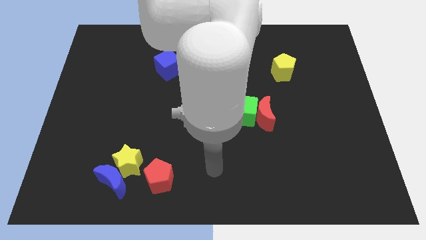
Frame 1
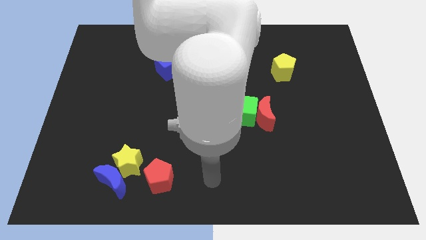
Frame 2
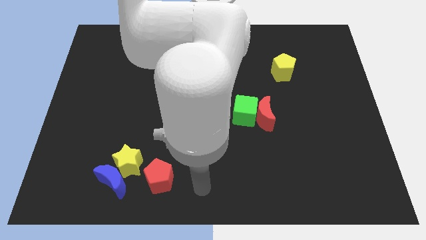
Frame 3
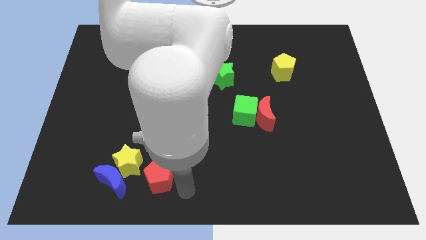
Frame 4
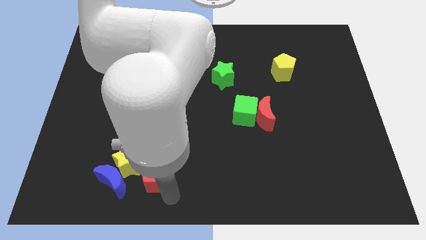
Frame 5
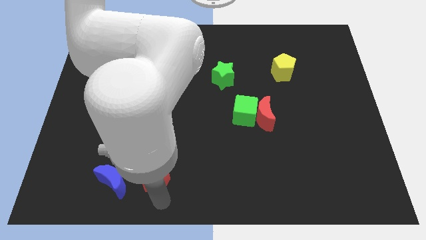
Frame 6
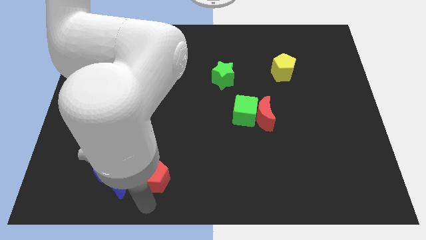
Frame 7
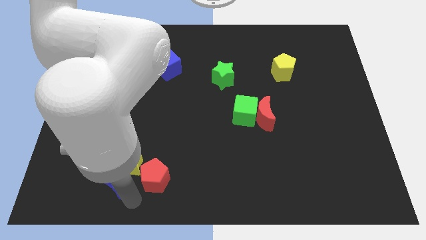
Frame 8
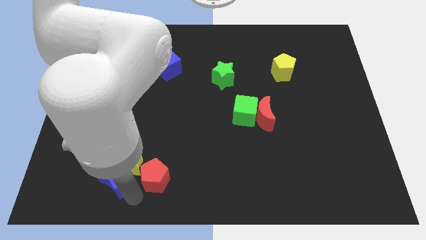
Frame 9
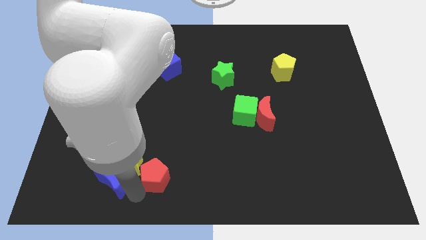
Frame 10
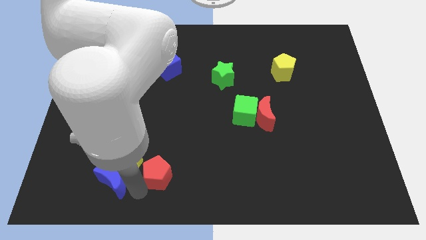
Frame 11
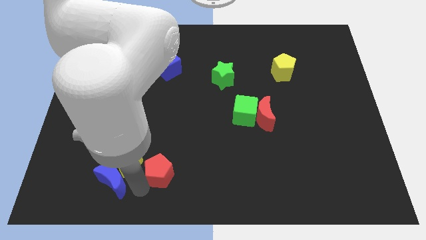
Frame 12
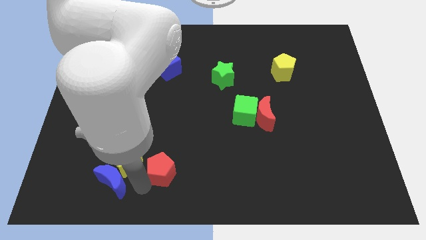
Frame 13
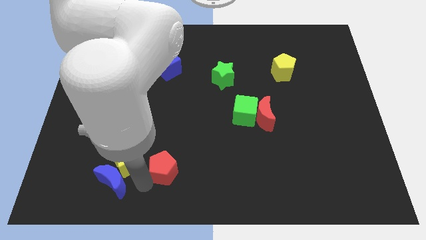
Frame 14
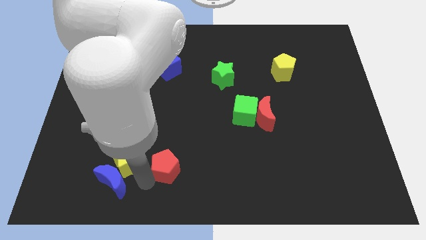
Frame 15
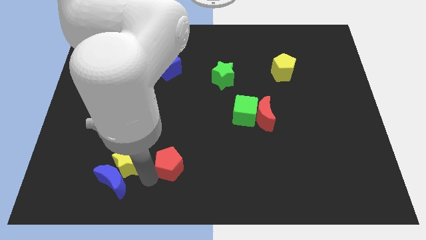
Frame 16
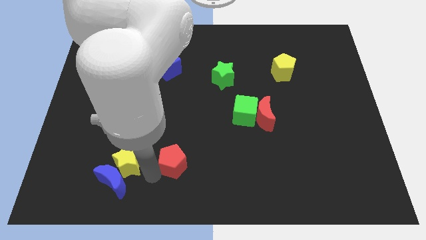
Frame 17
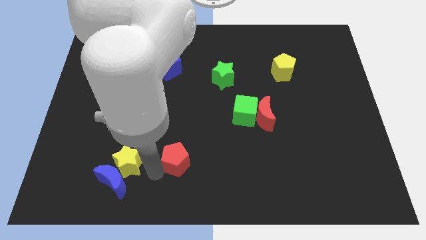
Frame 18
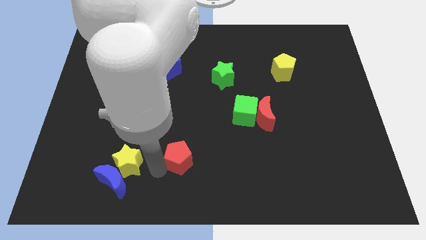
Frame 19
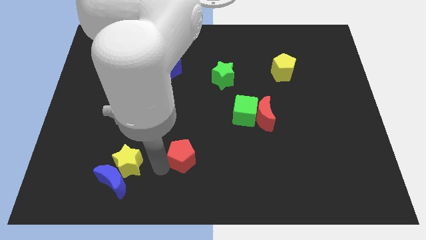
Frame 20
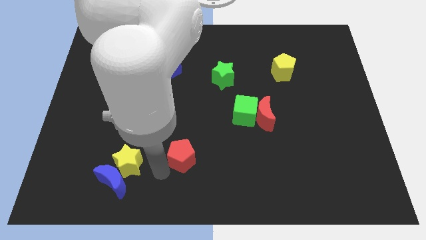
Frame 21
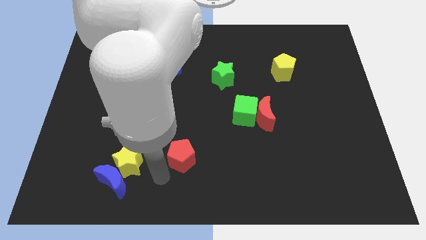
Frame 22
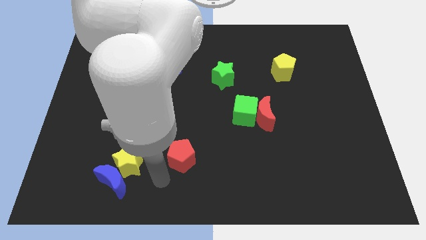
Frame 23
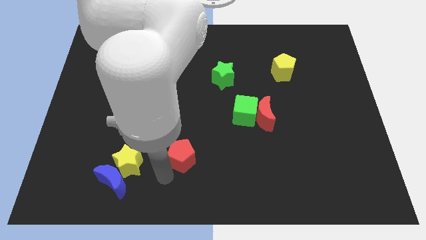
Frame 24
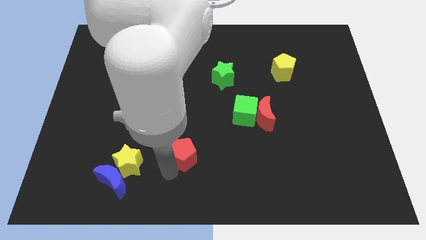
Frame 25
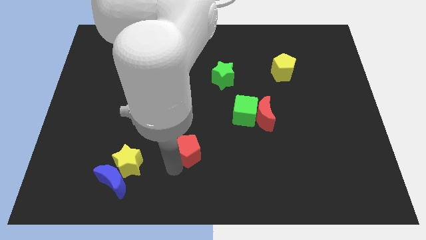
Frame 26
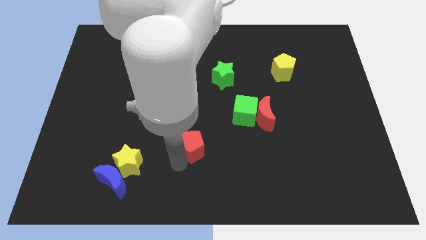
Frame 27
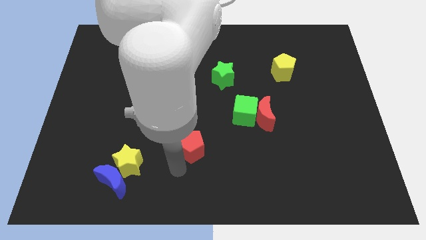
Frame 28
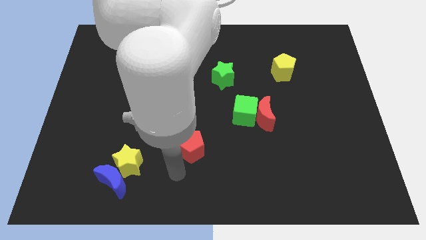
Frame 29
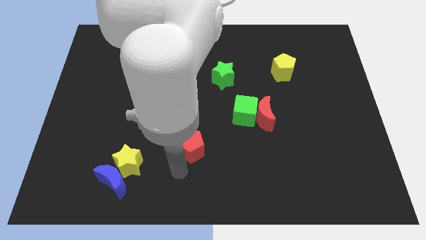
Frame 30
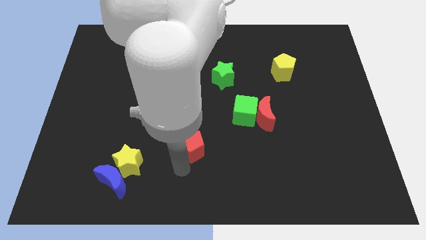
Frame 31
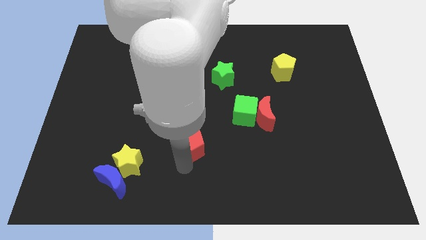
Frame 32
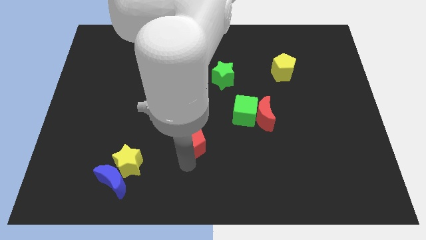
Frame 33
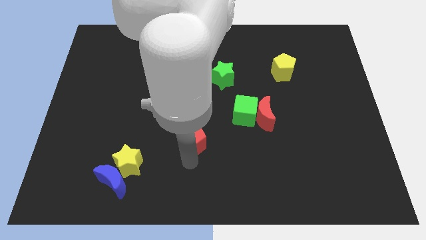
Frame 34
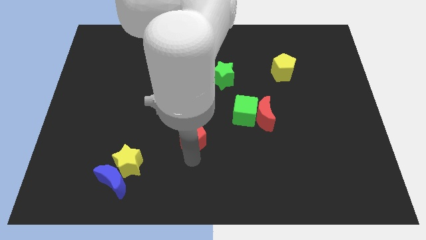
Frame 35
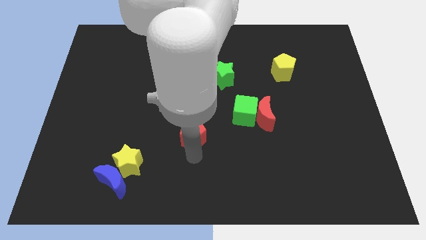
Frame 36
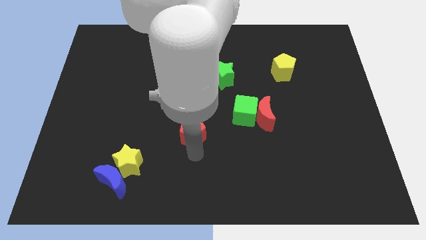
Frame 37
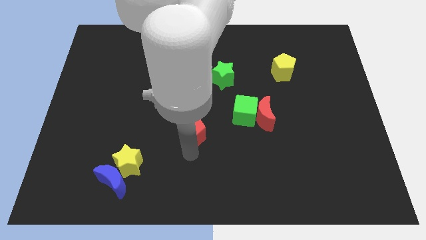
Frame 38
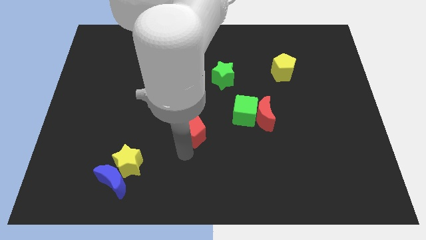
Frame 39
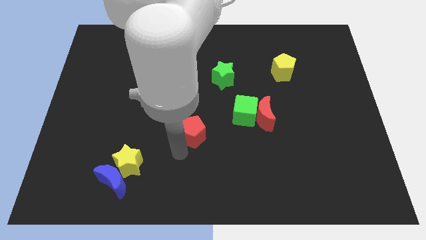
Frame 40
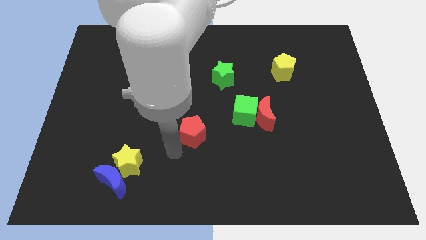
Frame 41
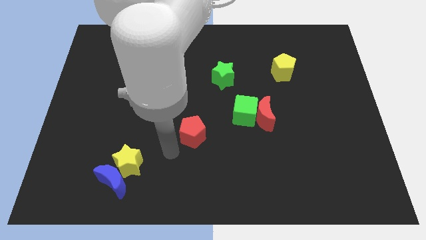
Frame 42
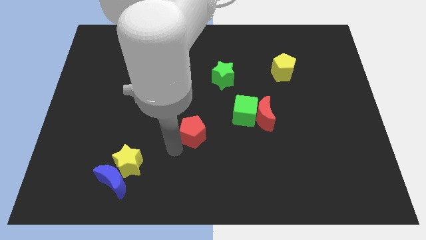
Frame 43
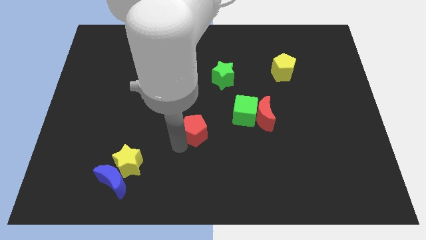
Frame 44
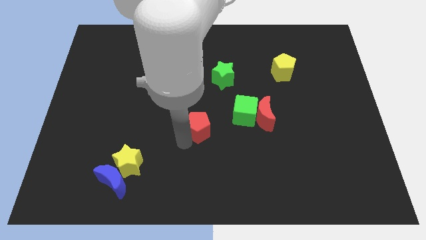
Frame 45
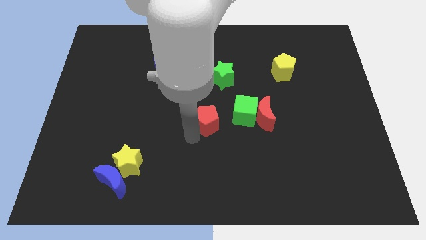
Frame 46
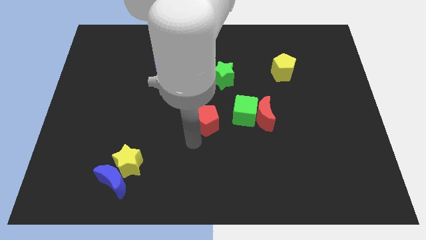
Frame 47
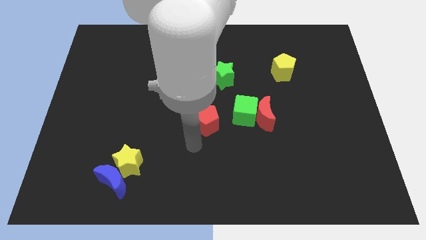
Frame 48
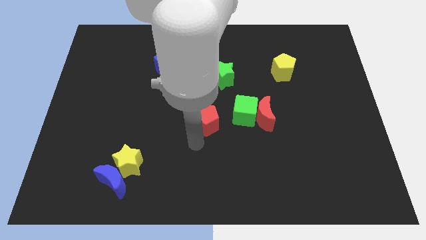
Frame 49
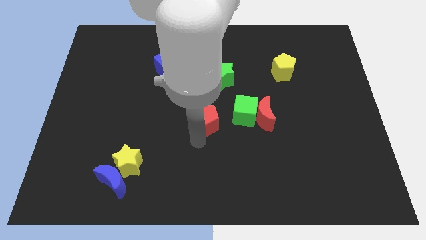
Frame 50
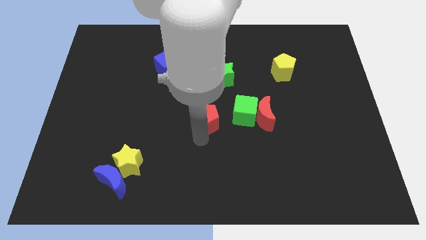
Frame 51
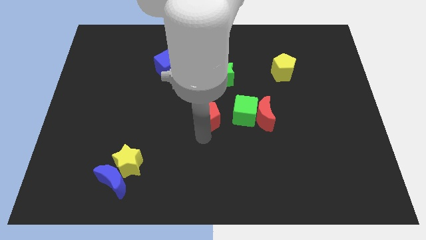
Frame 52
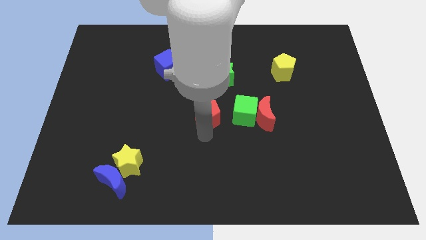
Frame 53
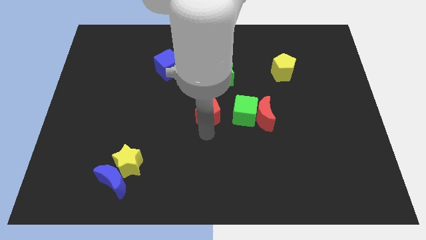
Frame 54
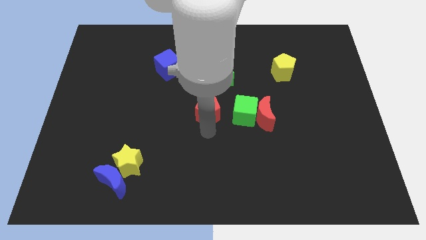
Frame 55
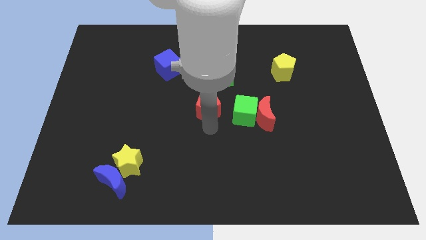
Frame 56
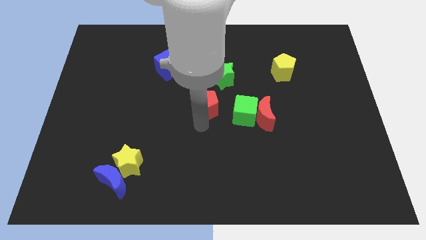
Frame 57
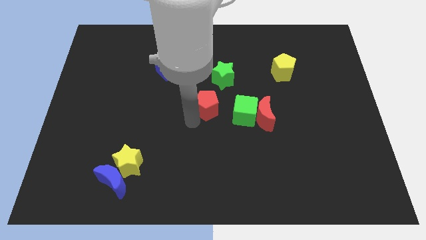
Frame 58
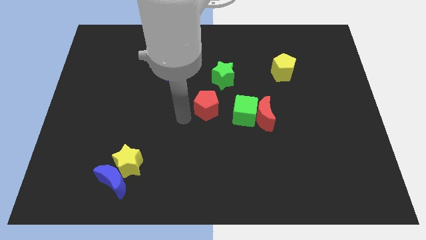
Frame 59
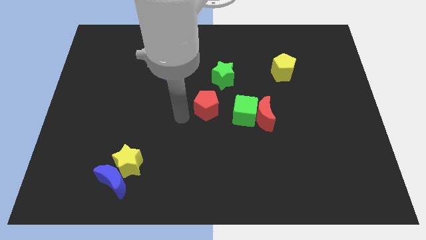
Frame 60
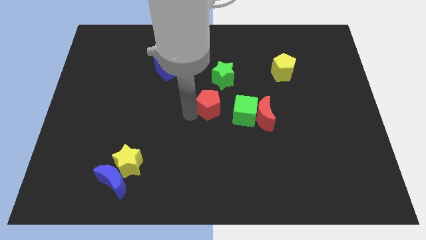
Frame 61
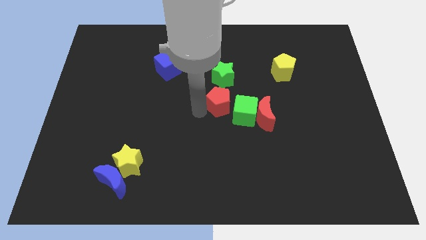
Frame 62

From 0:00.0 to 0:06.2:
push the red pentagon diagonally upwards and right

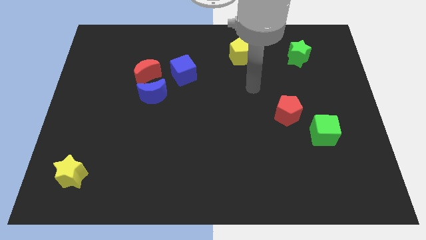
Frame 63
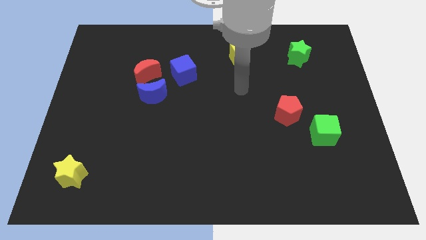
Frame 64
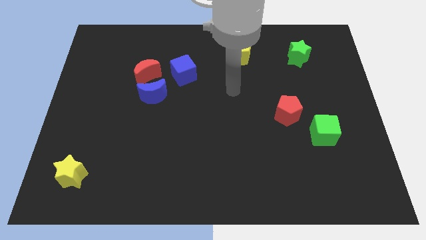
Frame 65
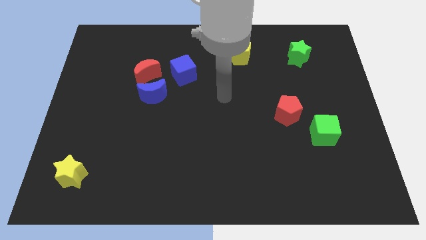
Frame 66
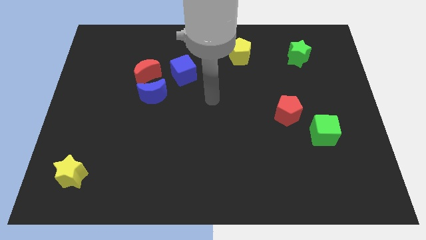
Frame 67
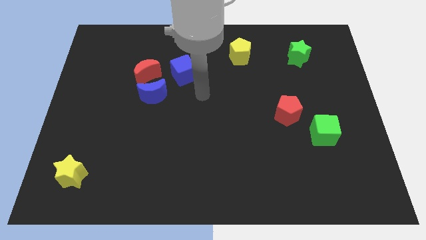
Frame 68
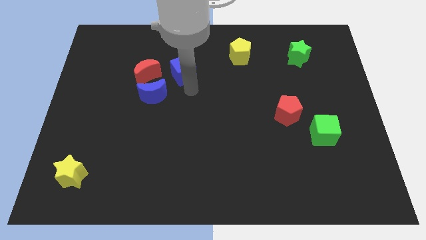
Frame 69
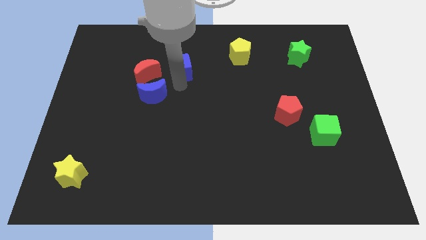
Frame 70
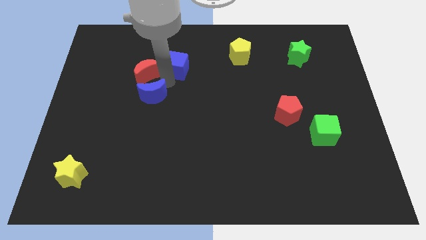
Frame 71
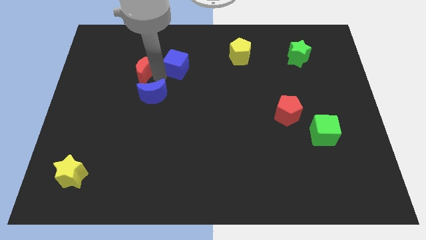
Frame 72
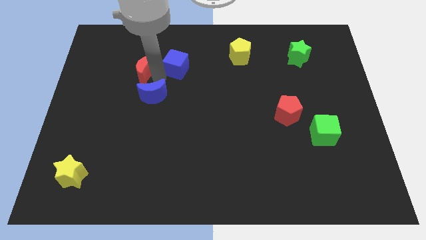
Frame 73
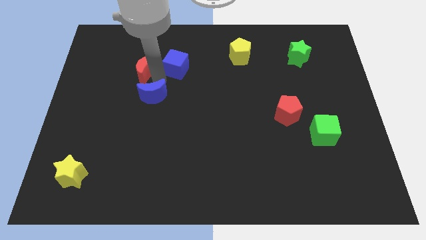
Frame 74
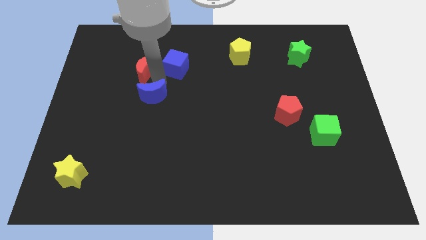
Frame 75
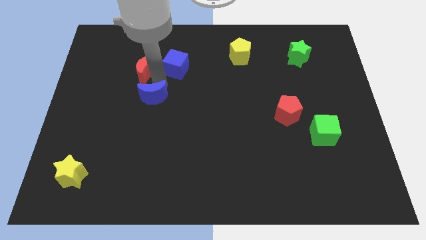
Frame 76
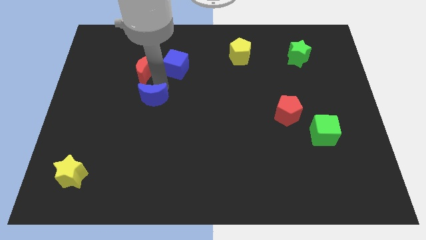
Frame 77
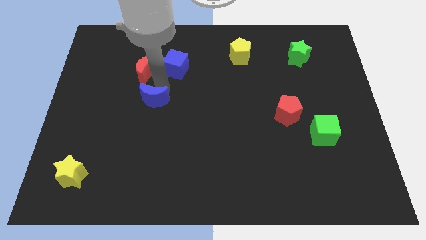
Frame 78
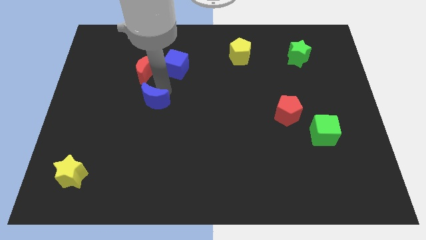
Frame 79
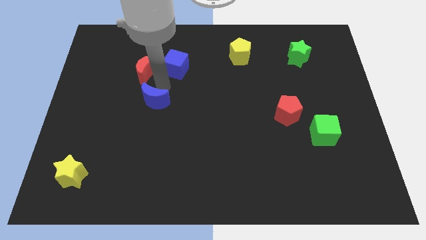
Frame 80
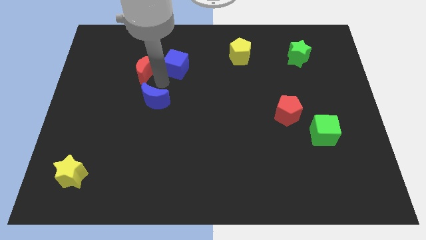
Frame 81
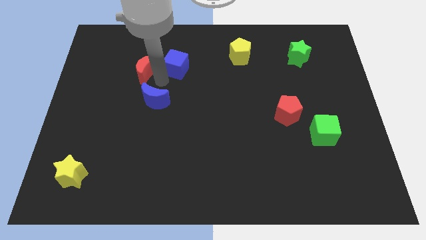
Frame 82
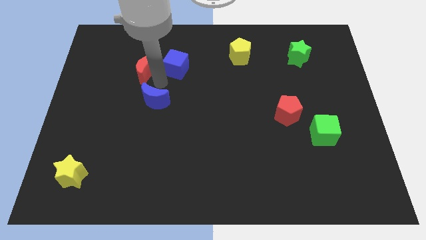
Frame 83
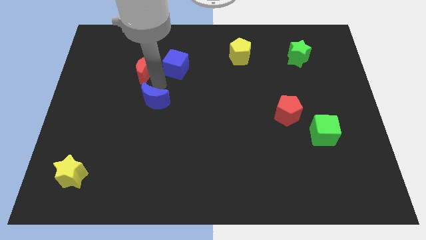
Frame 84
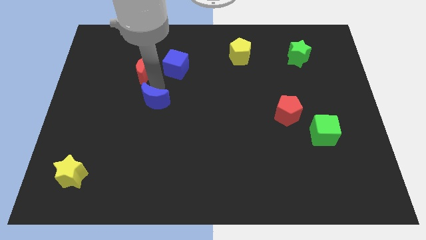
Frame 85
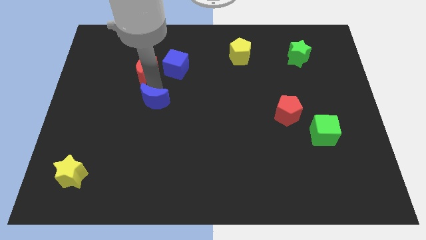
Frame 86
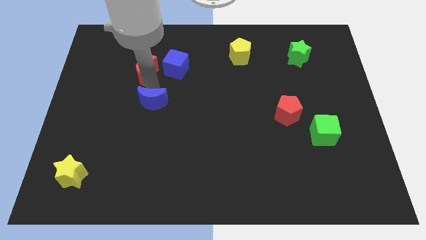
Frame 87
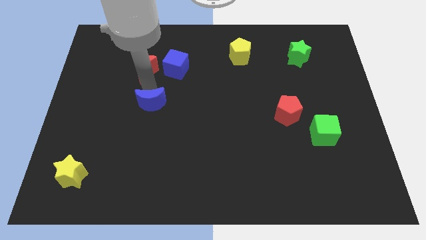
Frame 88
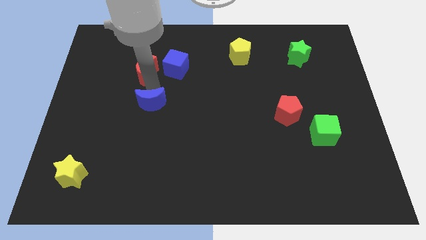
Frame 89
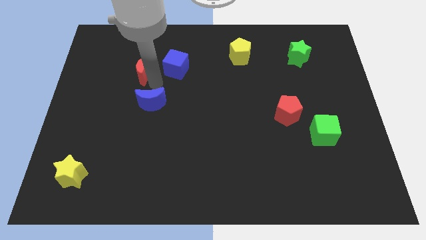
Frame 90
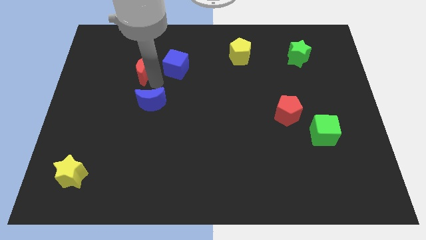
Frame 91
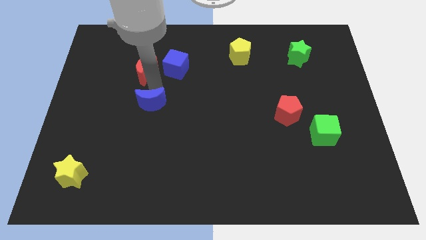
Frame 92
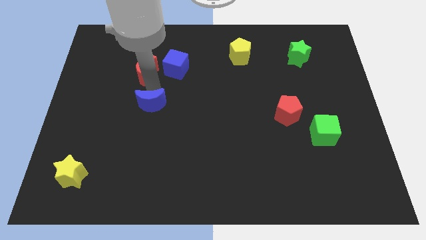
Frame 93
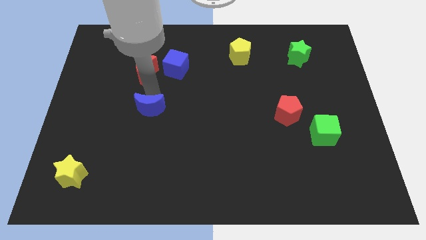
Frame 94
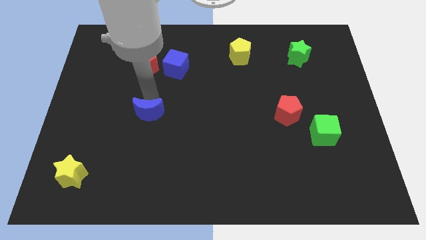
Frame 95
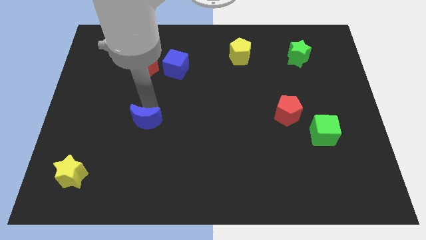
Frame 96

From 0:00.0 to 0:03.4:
slightly slide the blue moon downwards
